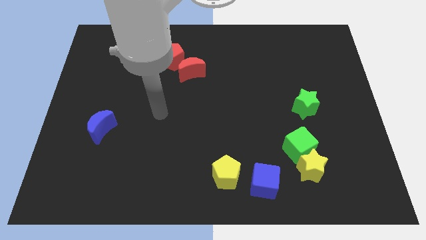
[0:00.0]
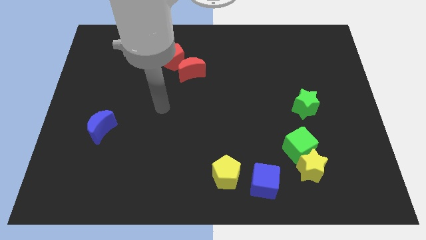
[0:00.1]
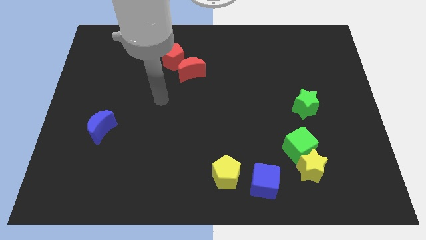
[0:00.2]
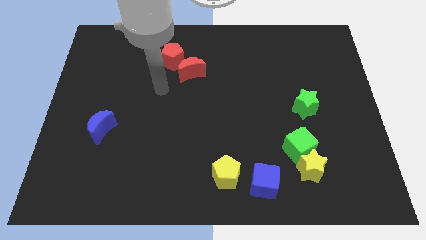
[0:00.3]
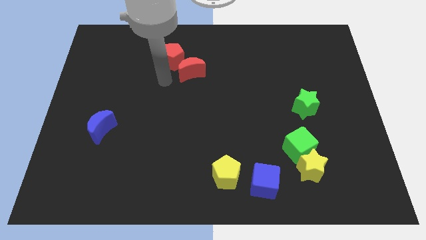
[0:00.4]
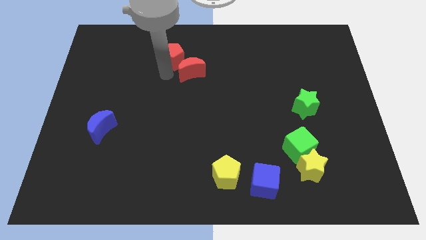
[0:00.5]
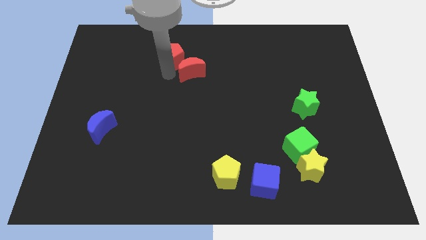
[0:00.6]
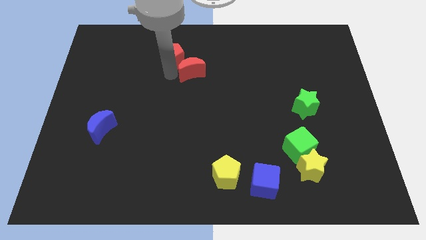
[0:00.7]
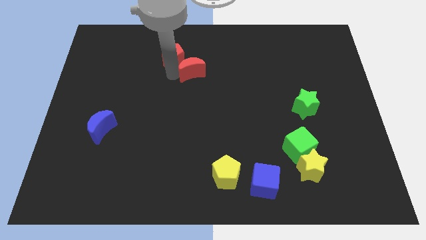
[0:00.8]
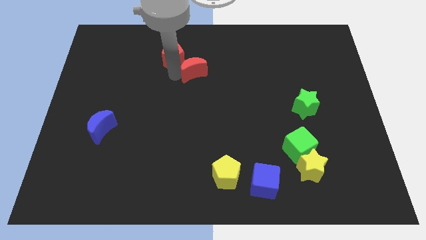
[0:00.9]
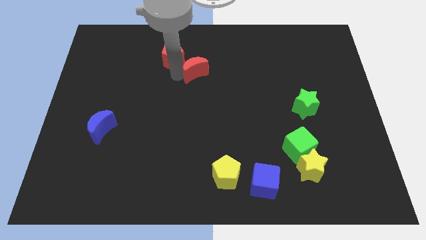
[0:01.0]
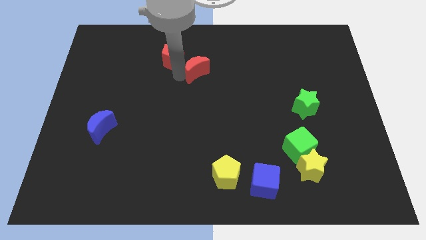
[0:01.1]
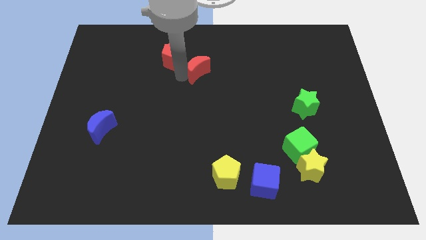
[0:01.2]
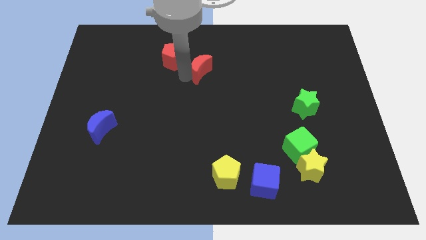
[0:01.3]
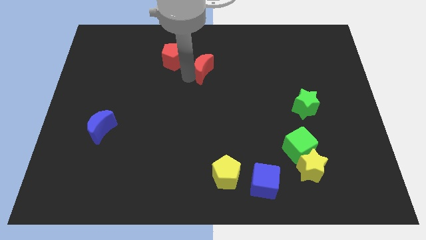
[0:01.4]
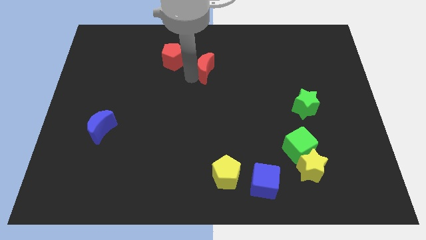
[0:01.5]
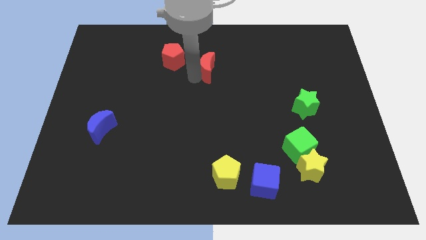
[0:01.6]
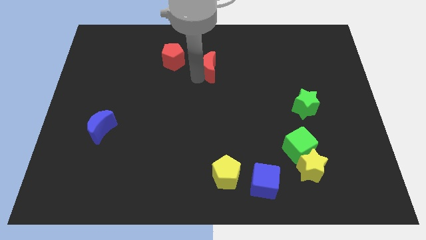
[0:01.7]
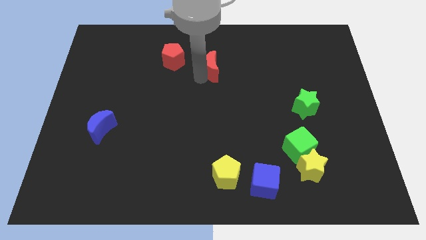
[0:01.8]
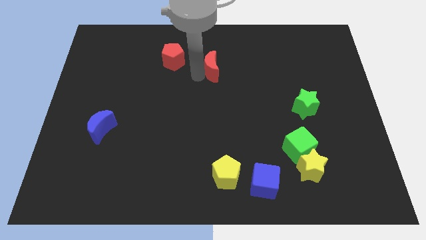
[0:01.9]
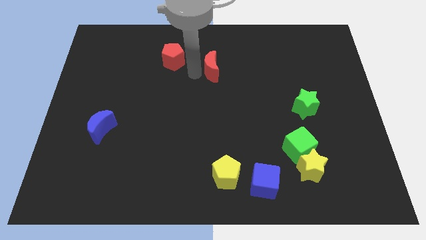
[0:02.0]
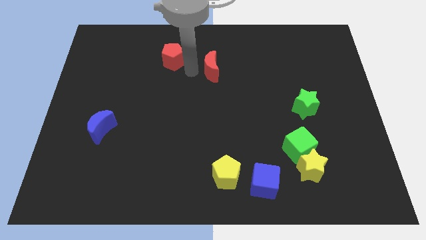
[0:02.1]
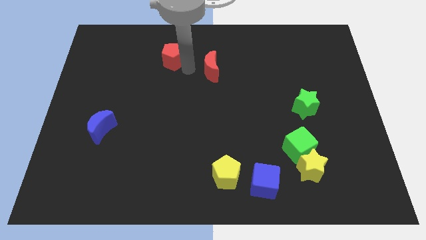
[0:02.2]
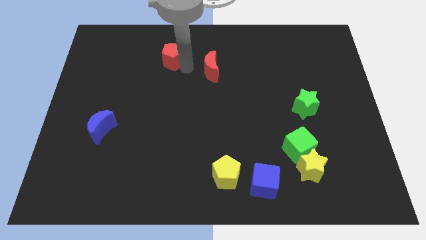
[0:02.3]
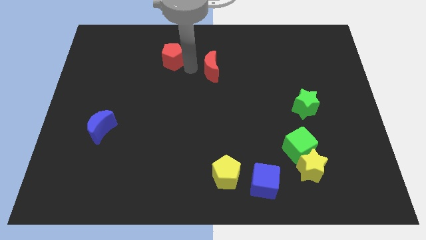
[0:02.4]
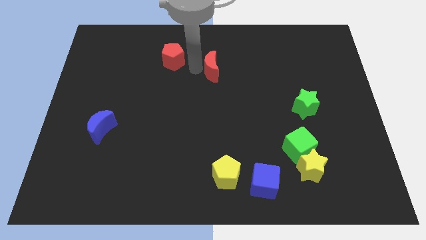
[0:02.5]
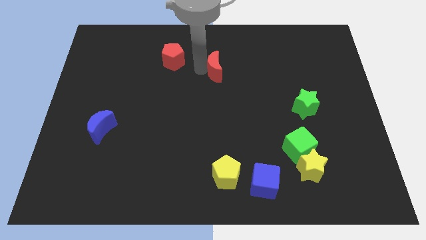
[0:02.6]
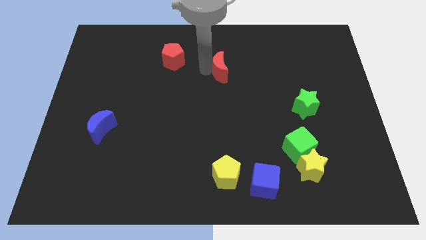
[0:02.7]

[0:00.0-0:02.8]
push the red moon to the right a little bit

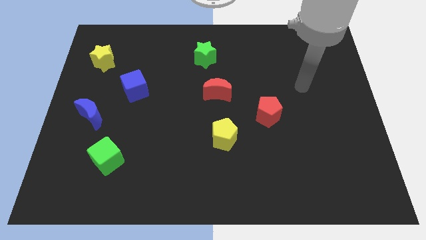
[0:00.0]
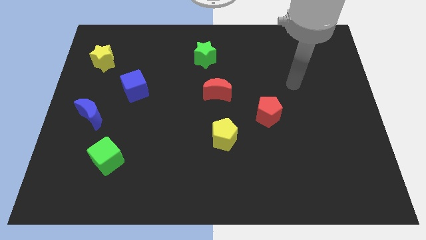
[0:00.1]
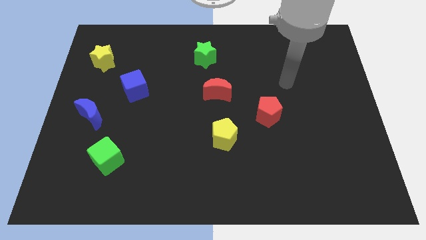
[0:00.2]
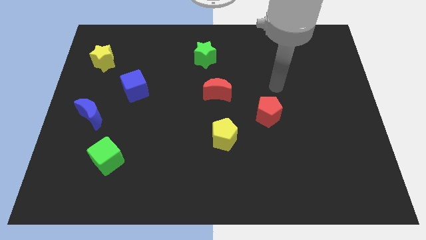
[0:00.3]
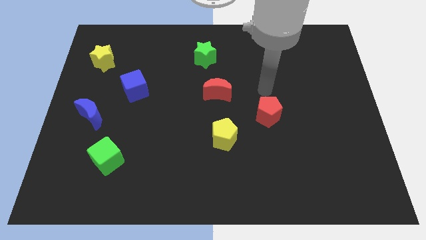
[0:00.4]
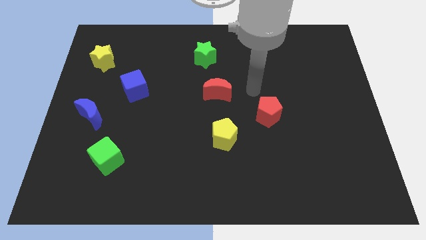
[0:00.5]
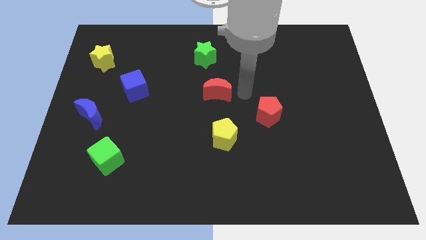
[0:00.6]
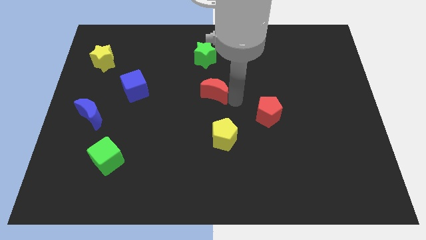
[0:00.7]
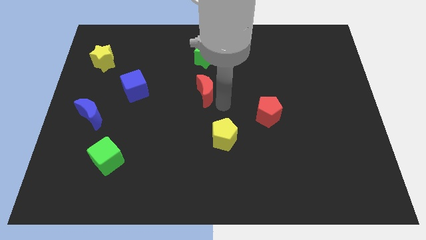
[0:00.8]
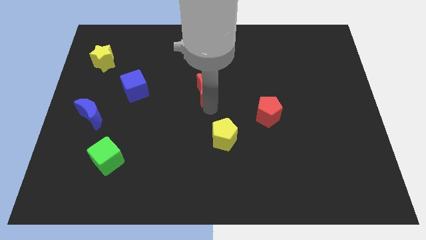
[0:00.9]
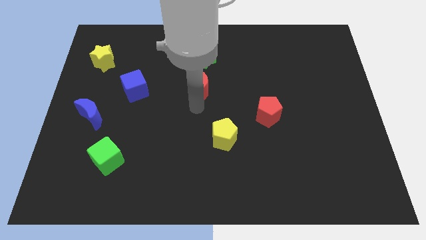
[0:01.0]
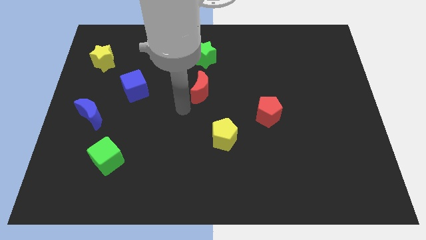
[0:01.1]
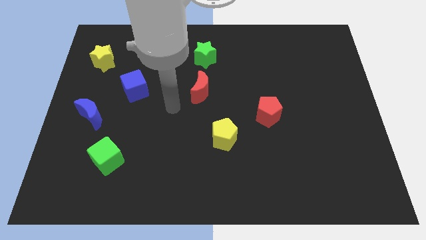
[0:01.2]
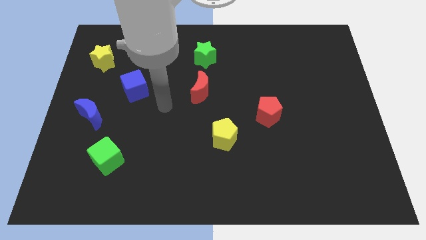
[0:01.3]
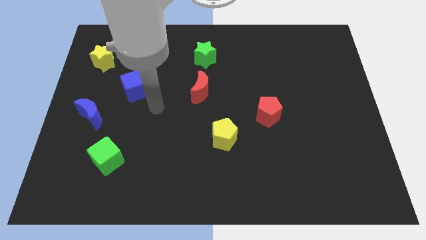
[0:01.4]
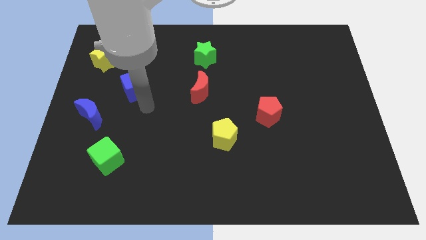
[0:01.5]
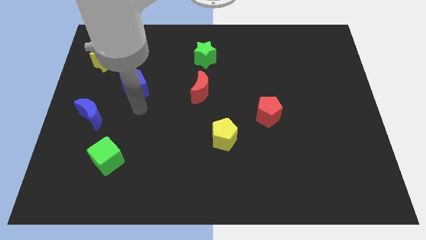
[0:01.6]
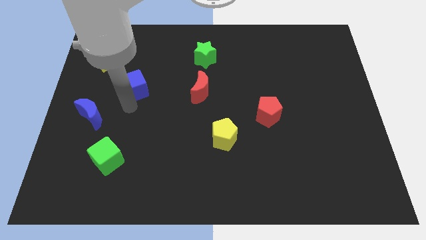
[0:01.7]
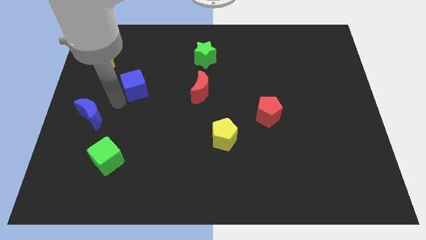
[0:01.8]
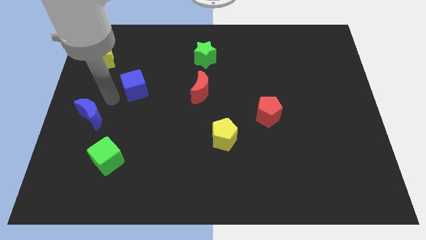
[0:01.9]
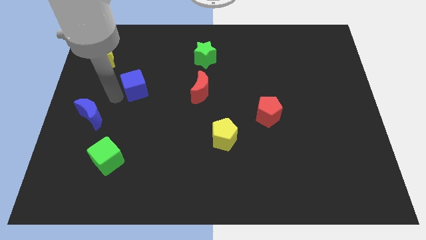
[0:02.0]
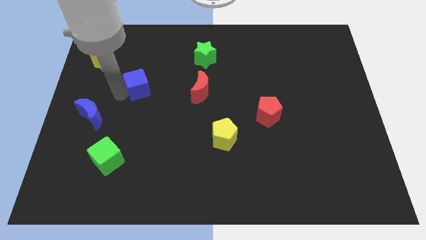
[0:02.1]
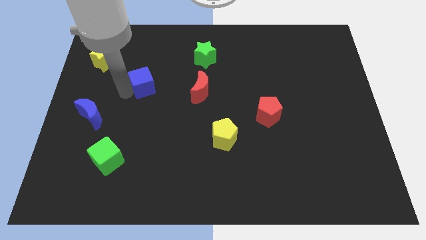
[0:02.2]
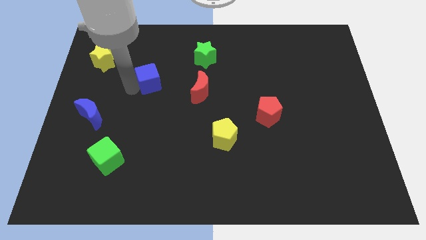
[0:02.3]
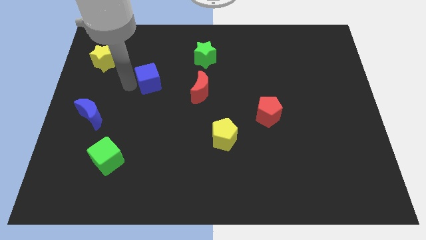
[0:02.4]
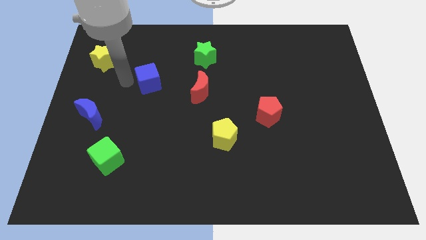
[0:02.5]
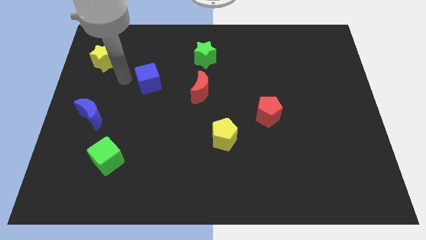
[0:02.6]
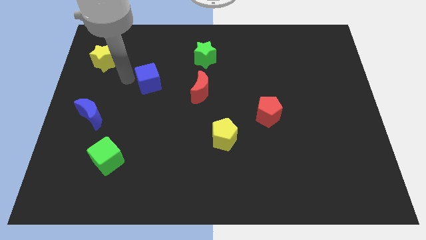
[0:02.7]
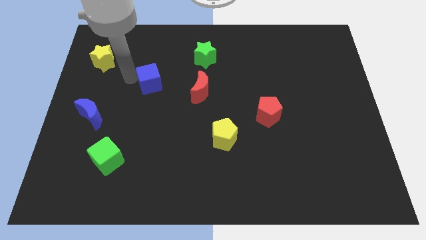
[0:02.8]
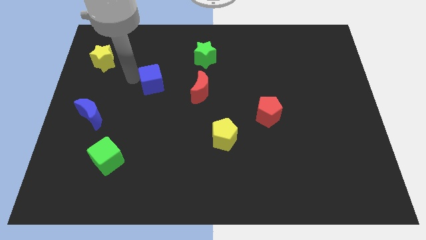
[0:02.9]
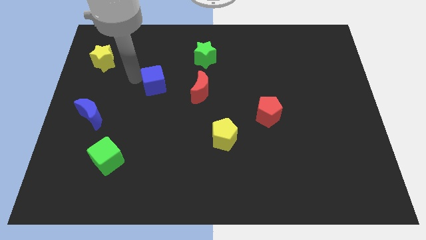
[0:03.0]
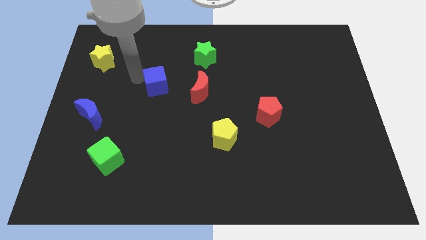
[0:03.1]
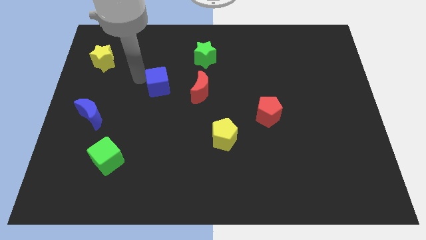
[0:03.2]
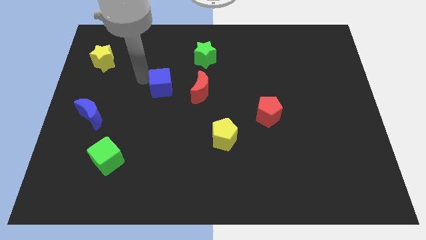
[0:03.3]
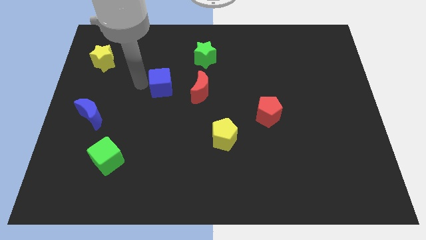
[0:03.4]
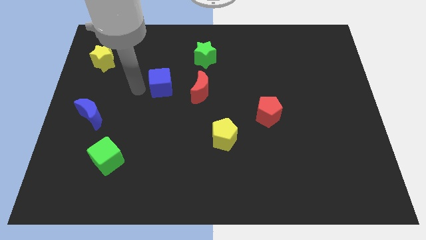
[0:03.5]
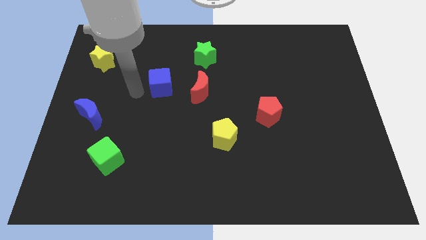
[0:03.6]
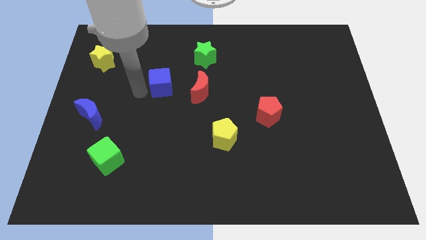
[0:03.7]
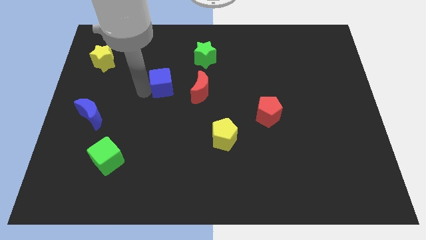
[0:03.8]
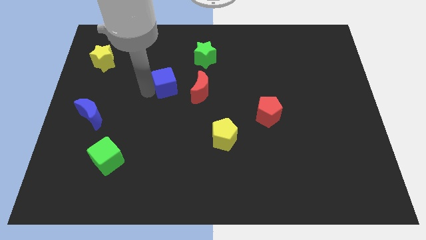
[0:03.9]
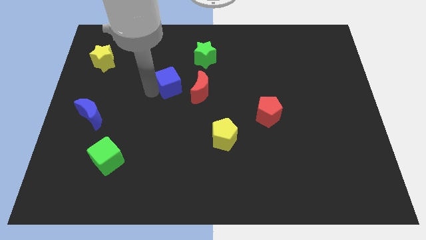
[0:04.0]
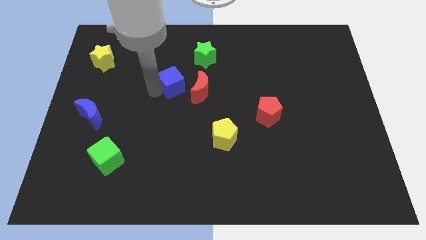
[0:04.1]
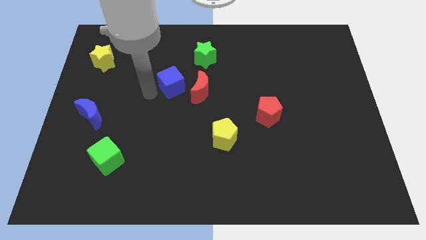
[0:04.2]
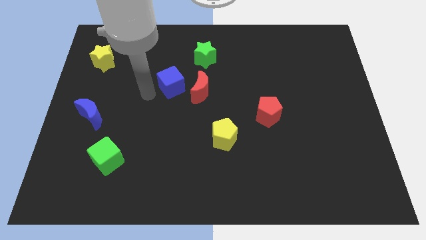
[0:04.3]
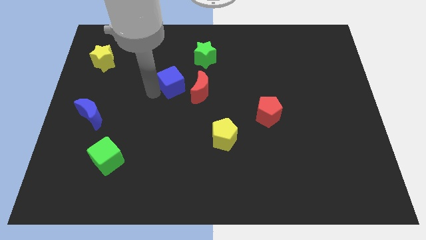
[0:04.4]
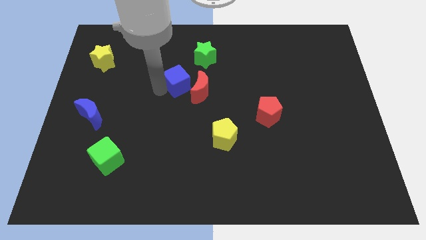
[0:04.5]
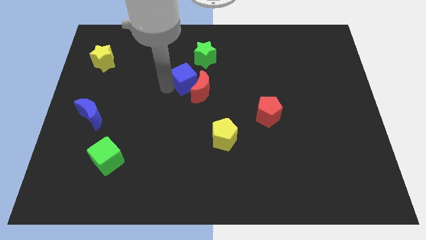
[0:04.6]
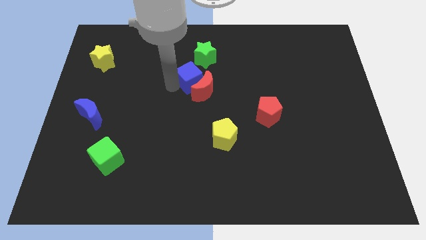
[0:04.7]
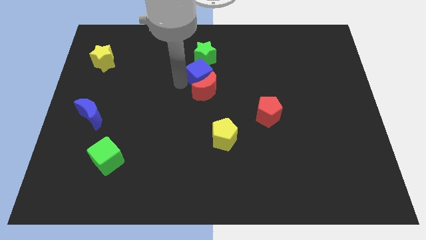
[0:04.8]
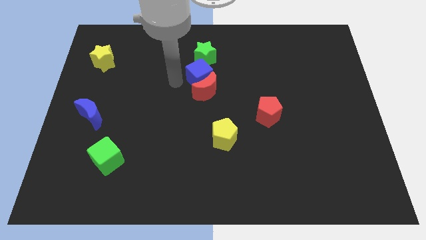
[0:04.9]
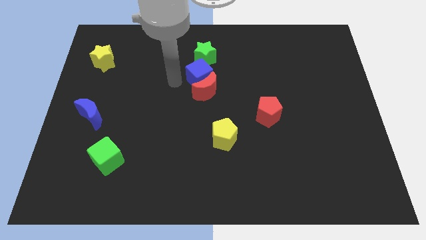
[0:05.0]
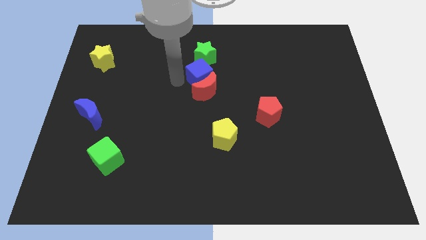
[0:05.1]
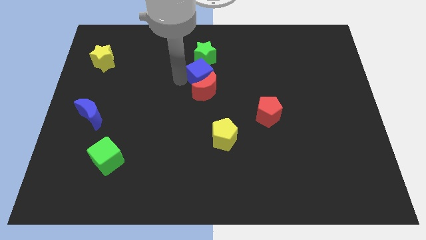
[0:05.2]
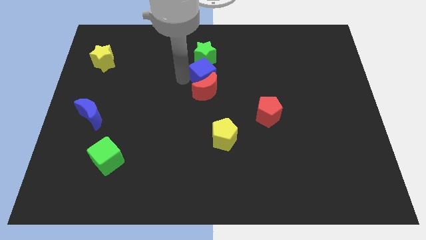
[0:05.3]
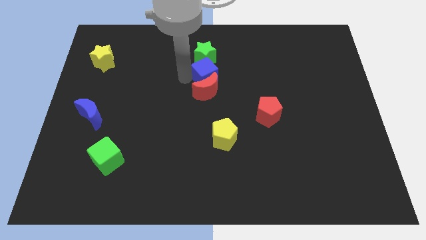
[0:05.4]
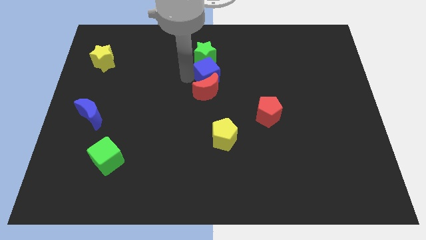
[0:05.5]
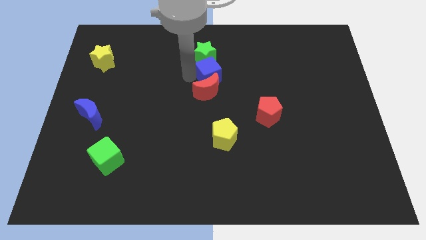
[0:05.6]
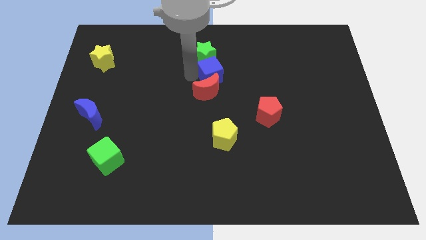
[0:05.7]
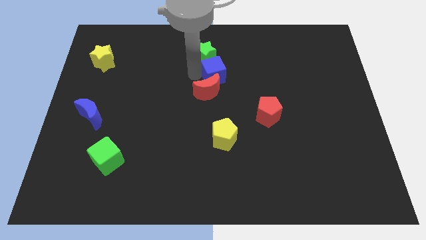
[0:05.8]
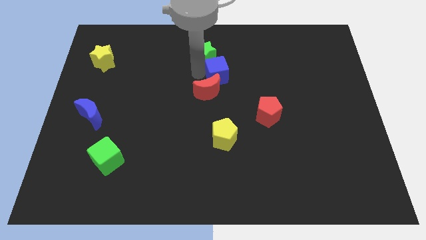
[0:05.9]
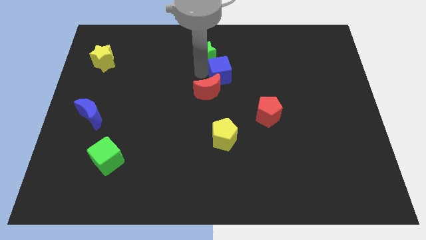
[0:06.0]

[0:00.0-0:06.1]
slide the blue cube to the right
